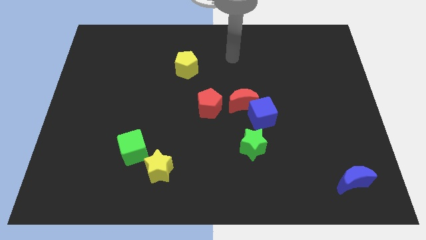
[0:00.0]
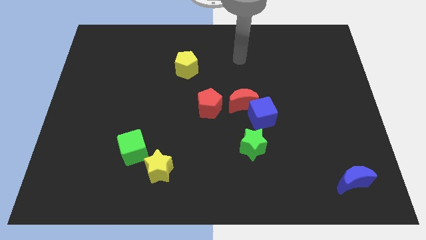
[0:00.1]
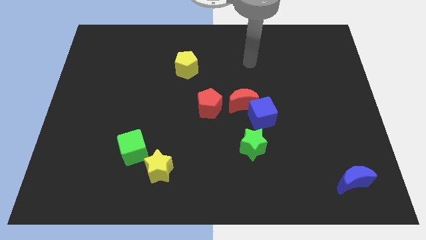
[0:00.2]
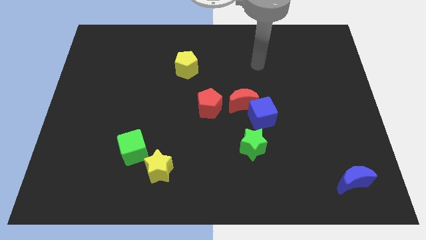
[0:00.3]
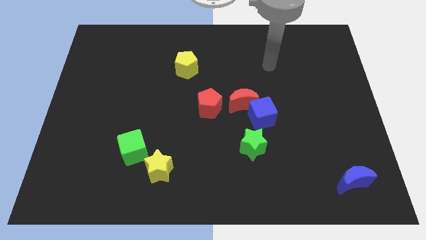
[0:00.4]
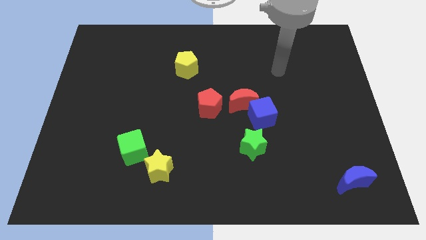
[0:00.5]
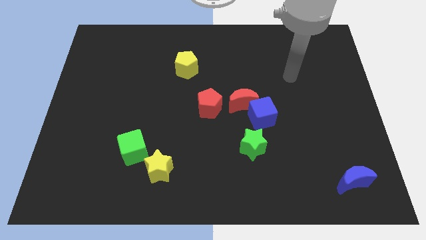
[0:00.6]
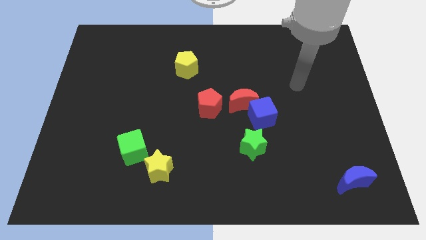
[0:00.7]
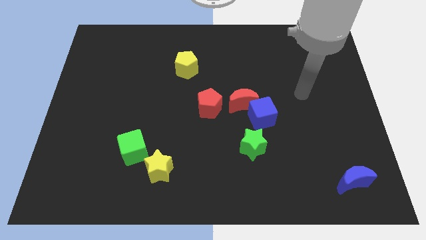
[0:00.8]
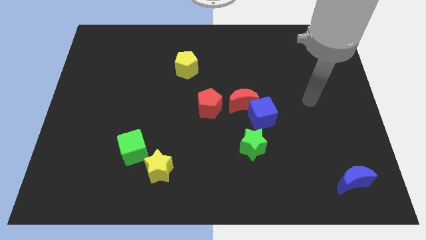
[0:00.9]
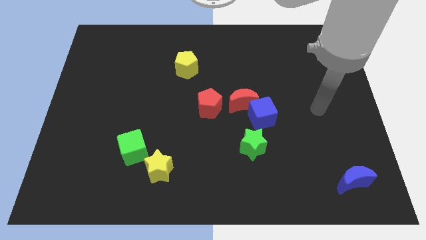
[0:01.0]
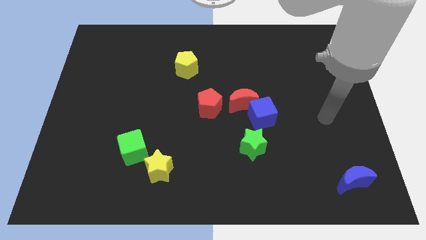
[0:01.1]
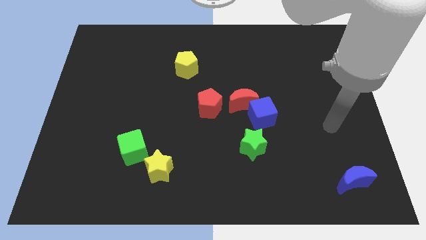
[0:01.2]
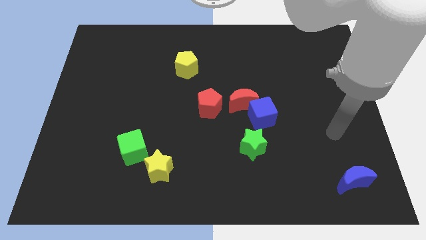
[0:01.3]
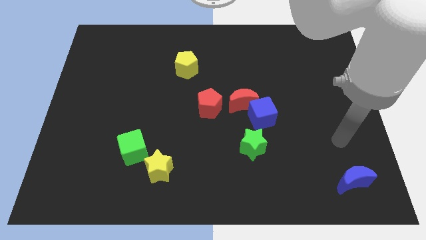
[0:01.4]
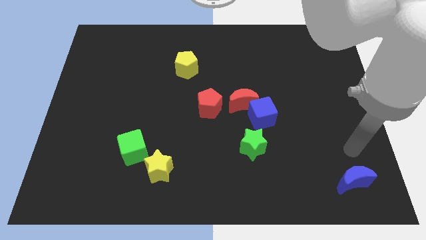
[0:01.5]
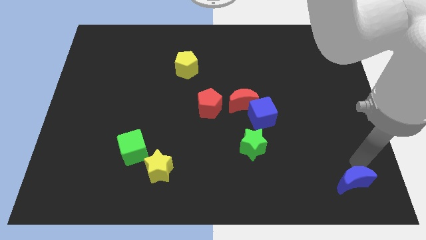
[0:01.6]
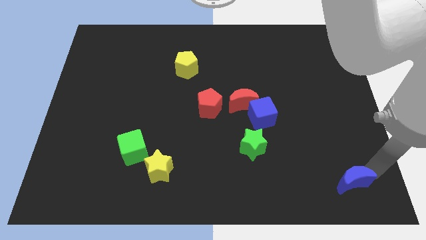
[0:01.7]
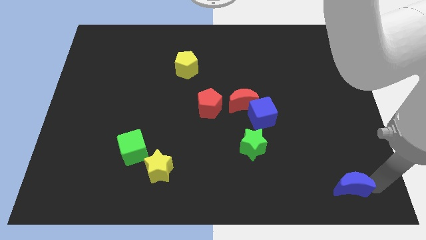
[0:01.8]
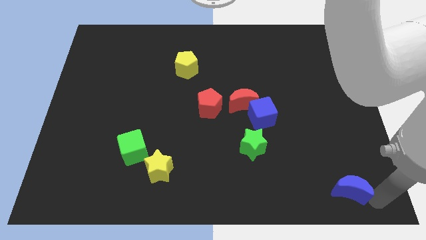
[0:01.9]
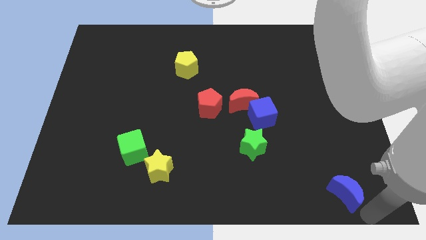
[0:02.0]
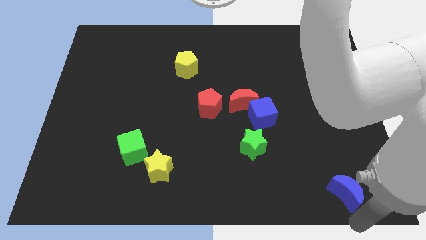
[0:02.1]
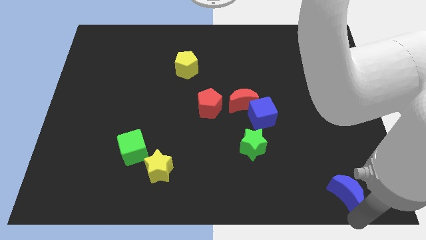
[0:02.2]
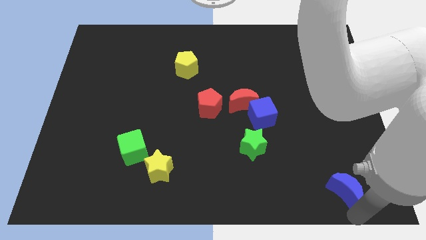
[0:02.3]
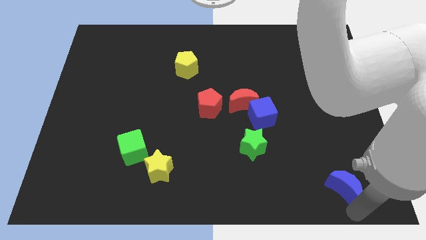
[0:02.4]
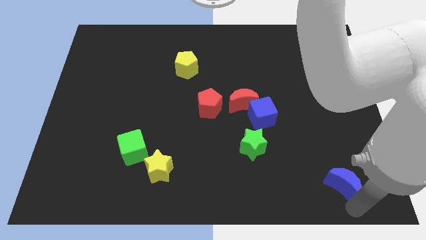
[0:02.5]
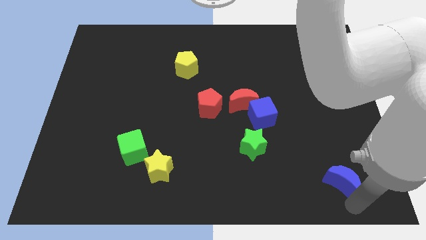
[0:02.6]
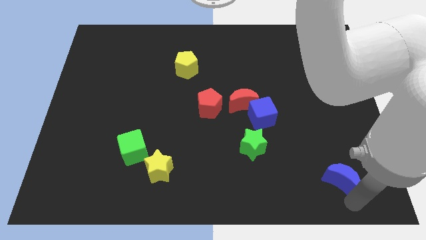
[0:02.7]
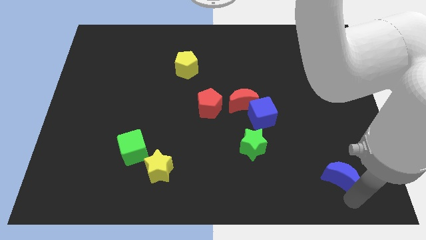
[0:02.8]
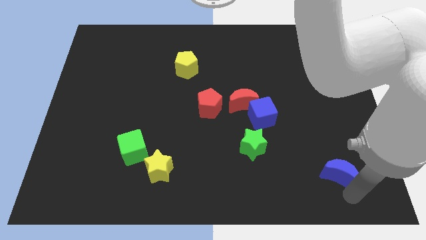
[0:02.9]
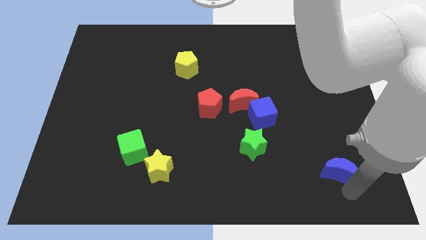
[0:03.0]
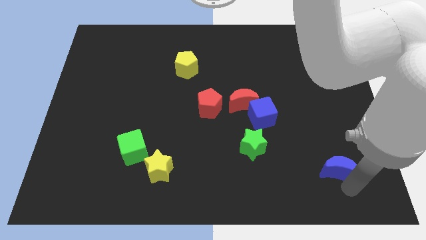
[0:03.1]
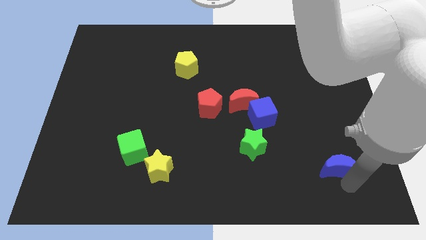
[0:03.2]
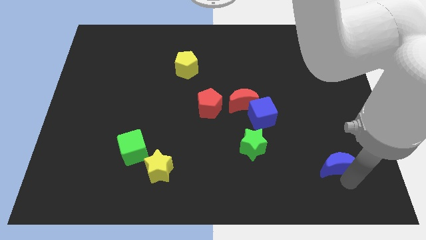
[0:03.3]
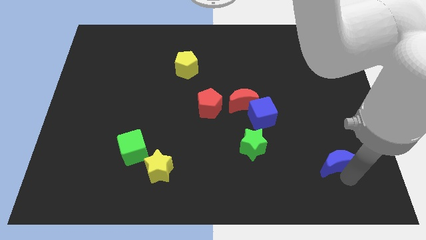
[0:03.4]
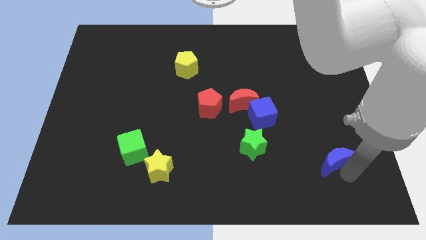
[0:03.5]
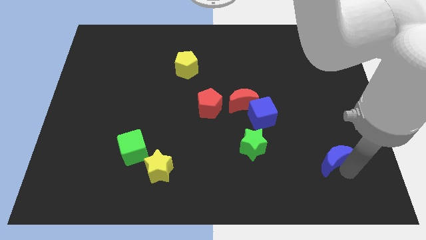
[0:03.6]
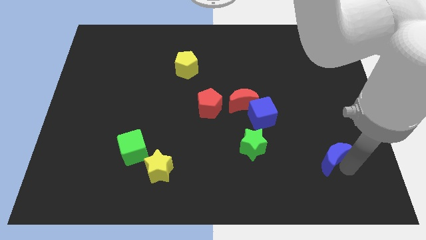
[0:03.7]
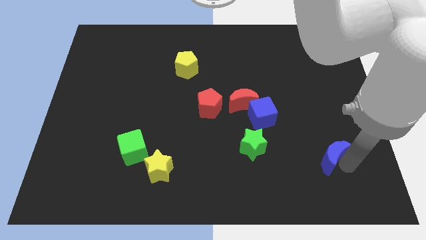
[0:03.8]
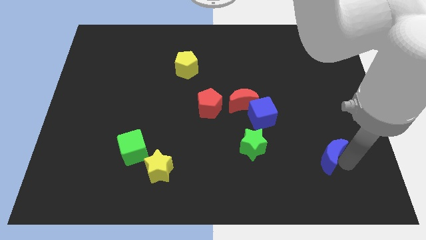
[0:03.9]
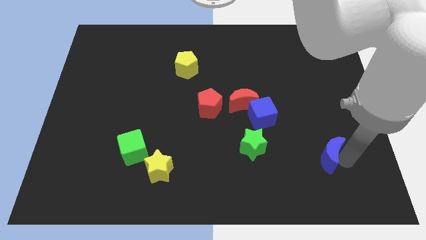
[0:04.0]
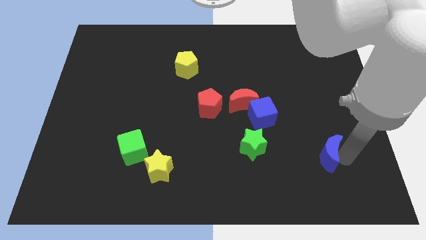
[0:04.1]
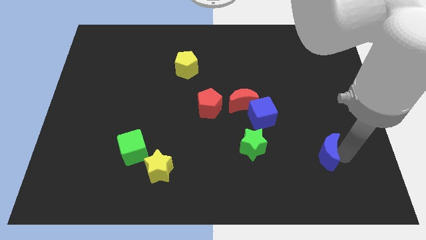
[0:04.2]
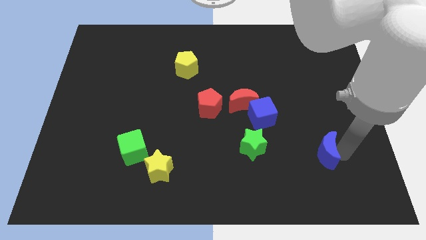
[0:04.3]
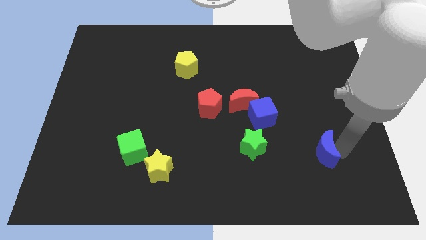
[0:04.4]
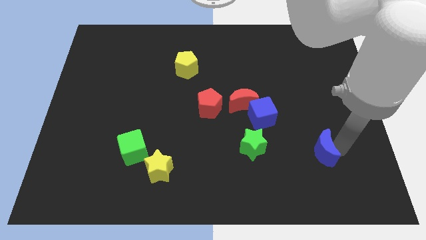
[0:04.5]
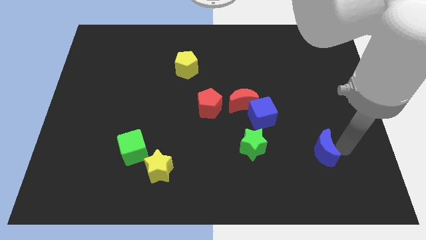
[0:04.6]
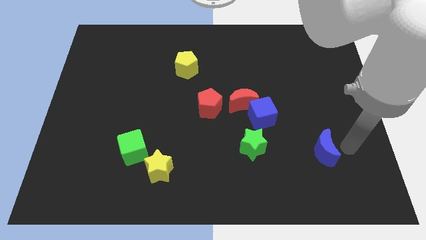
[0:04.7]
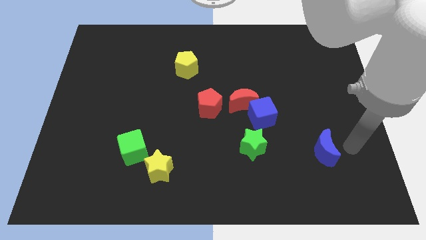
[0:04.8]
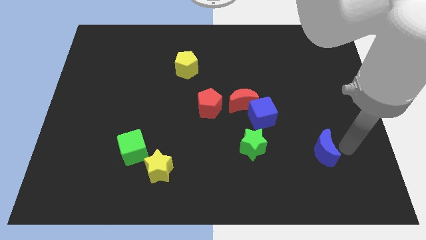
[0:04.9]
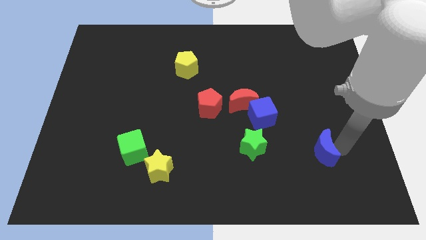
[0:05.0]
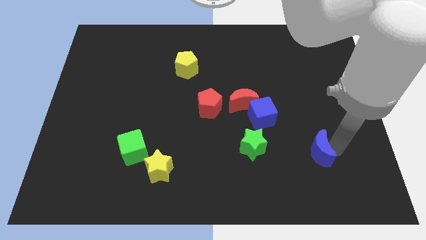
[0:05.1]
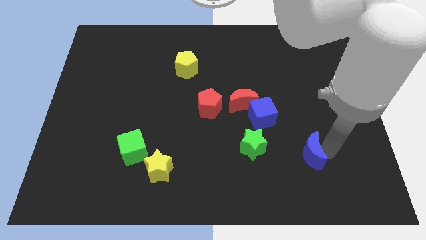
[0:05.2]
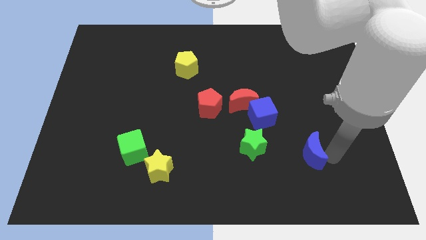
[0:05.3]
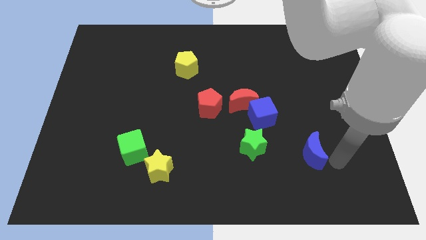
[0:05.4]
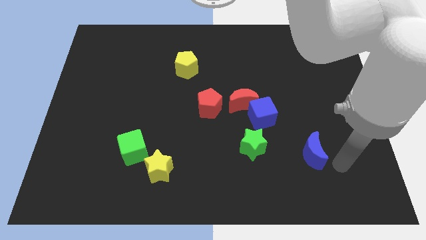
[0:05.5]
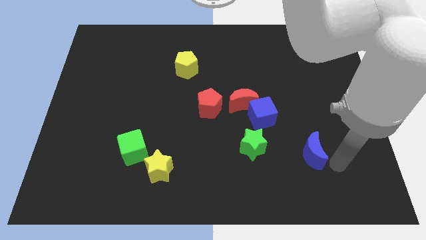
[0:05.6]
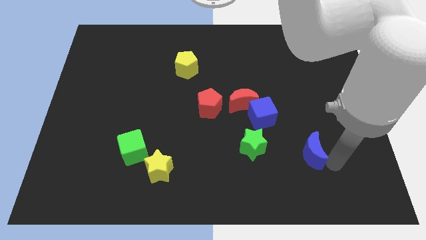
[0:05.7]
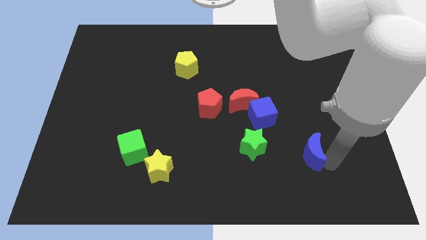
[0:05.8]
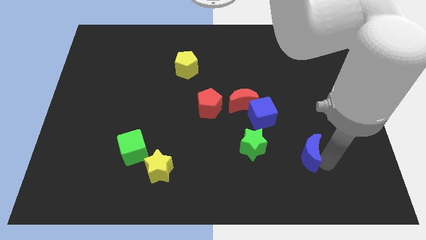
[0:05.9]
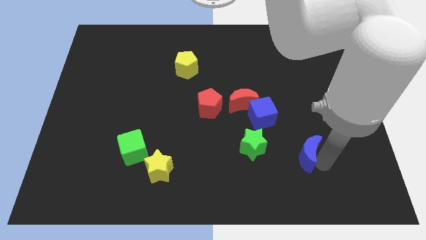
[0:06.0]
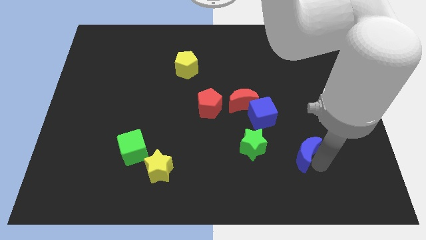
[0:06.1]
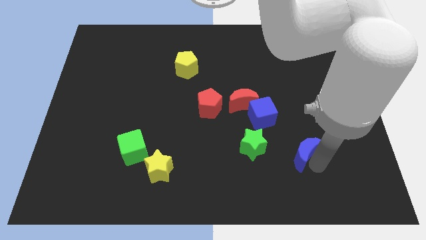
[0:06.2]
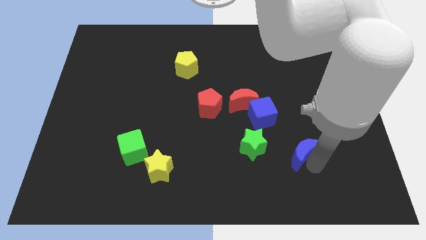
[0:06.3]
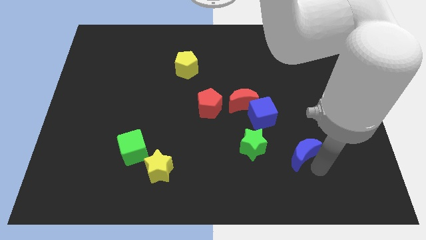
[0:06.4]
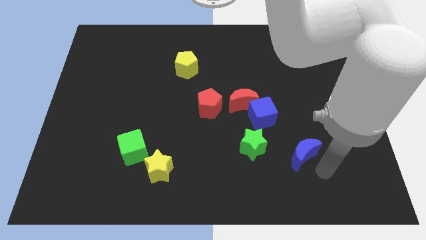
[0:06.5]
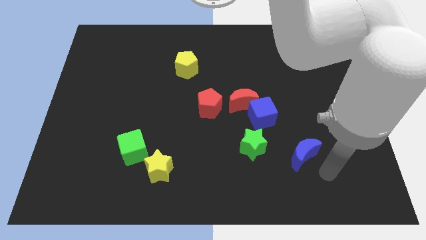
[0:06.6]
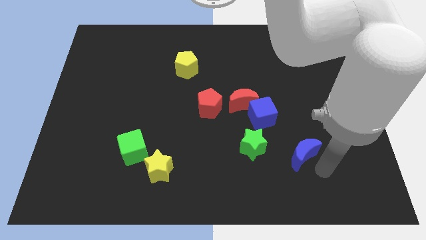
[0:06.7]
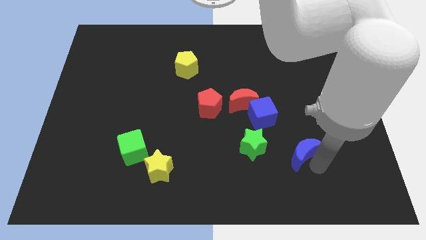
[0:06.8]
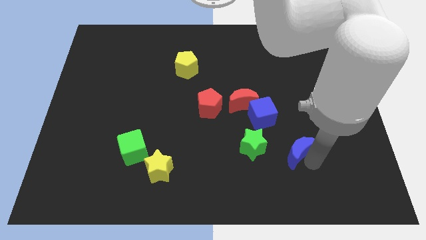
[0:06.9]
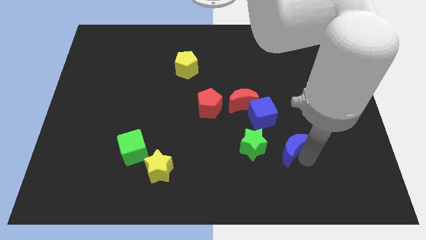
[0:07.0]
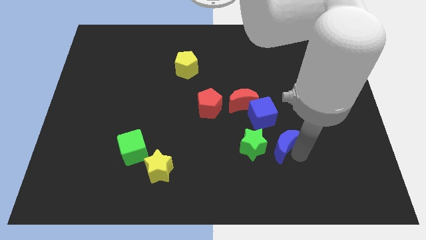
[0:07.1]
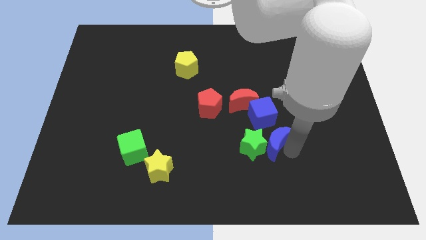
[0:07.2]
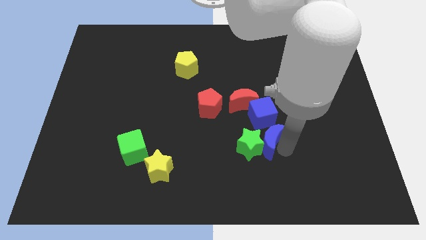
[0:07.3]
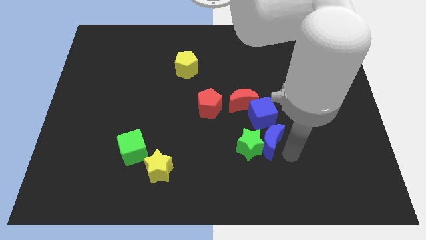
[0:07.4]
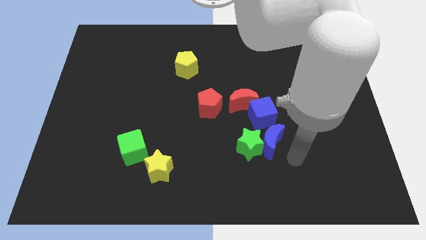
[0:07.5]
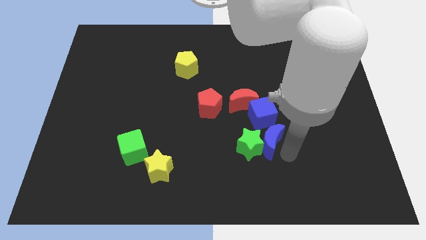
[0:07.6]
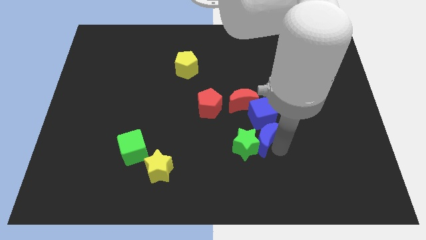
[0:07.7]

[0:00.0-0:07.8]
push the blue moon diagonally down and to the left of the blue cube
